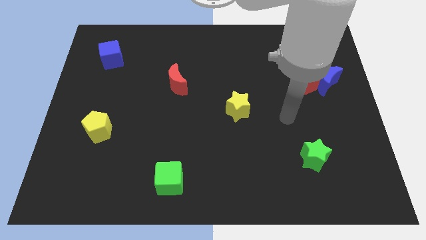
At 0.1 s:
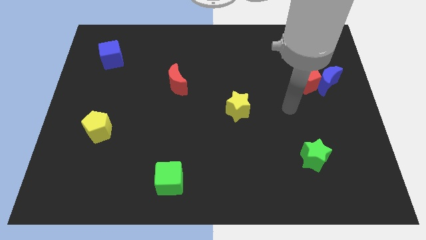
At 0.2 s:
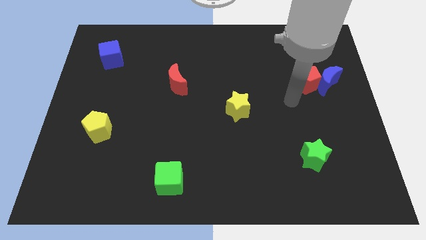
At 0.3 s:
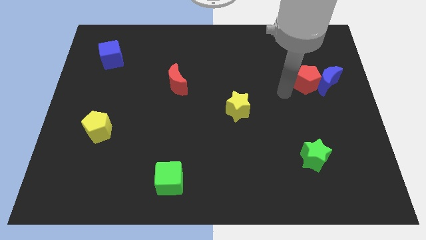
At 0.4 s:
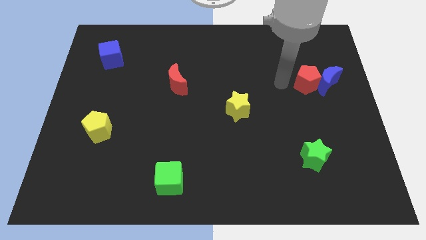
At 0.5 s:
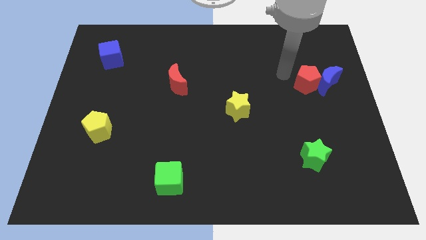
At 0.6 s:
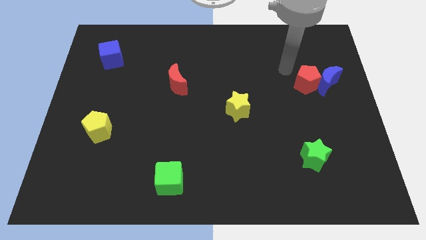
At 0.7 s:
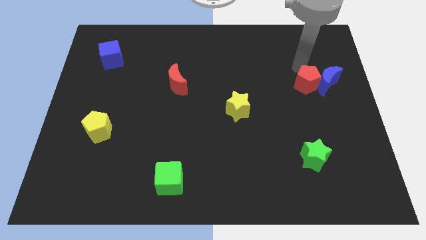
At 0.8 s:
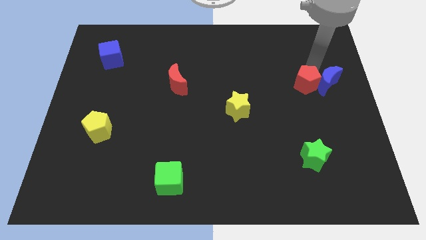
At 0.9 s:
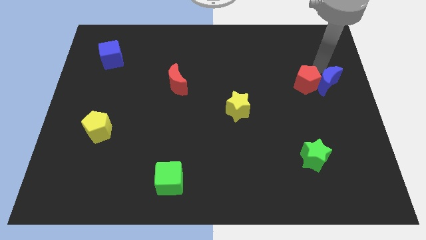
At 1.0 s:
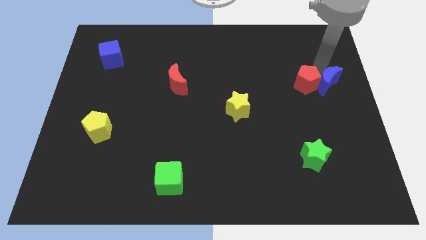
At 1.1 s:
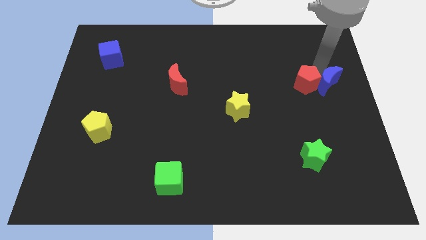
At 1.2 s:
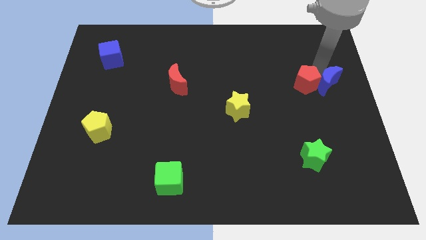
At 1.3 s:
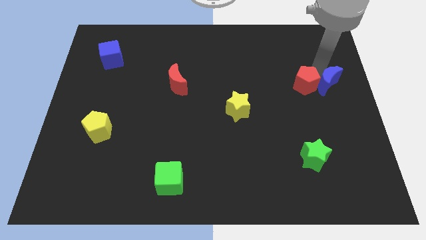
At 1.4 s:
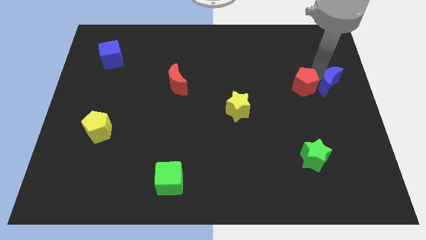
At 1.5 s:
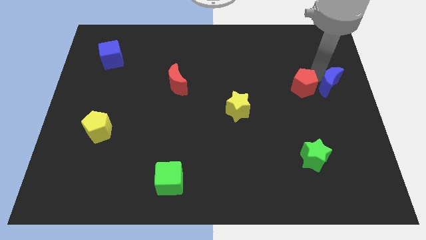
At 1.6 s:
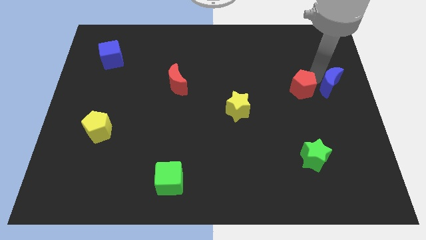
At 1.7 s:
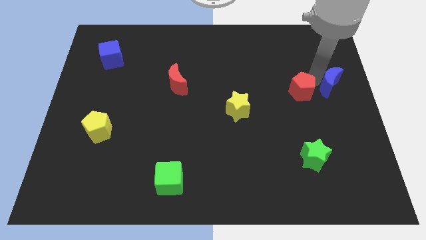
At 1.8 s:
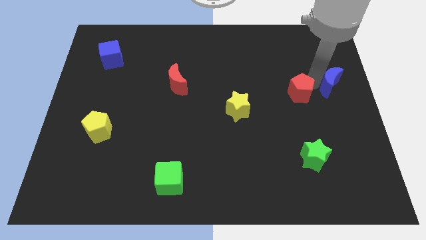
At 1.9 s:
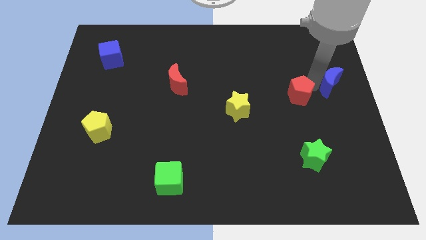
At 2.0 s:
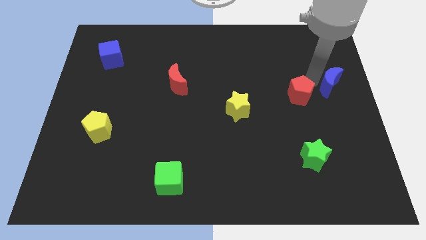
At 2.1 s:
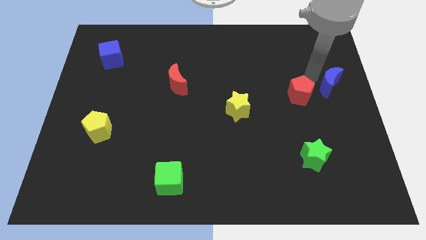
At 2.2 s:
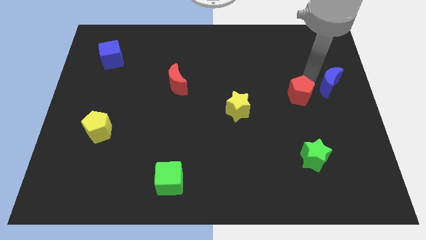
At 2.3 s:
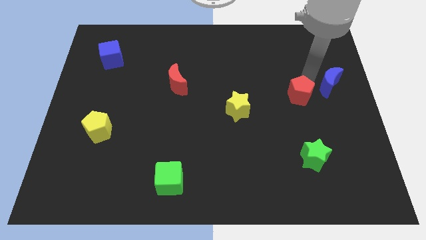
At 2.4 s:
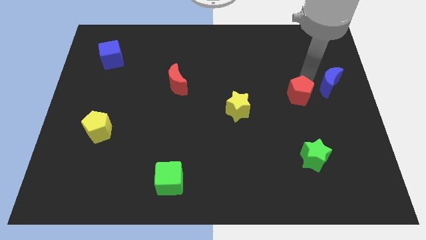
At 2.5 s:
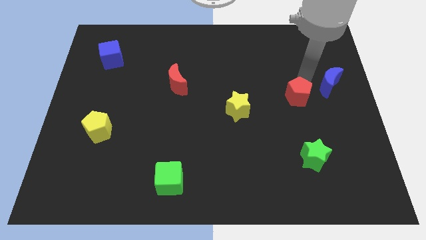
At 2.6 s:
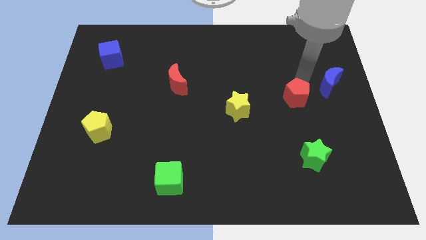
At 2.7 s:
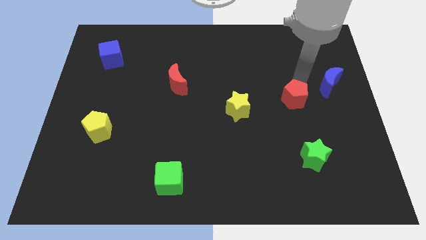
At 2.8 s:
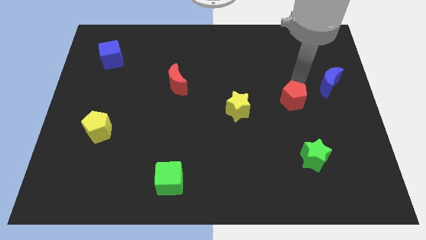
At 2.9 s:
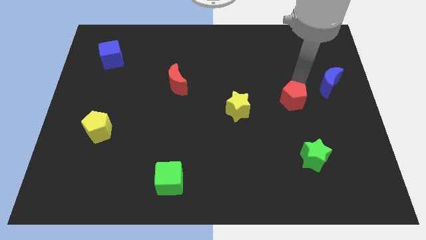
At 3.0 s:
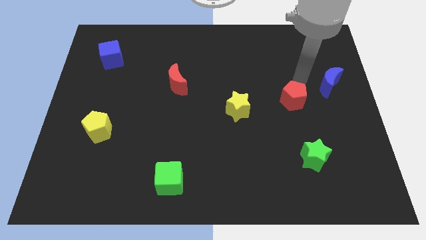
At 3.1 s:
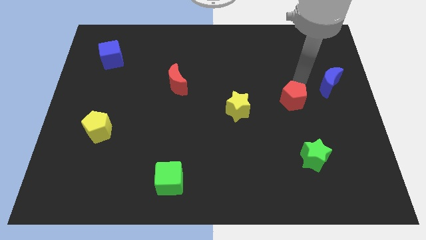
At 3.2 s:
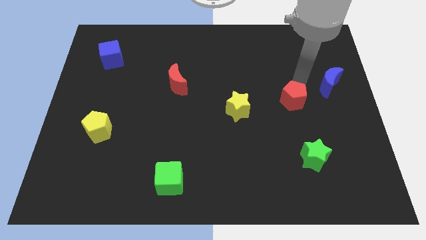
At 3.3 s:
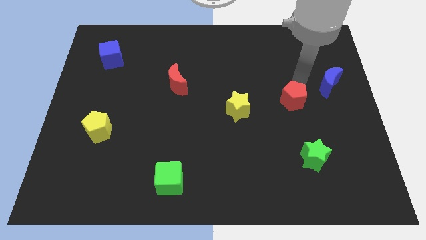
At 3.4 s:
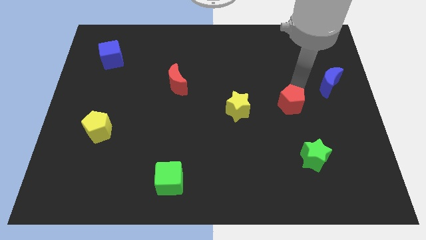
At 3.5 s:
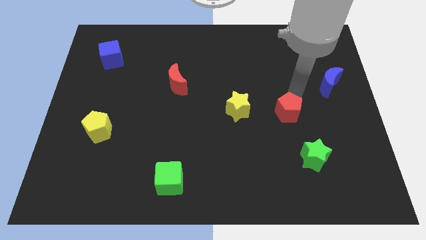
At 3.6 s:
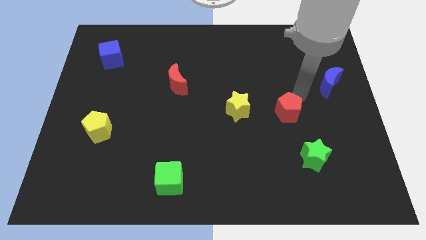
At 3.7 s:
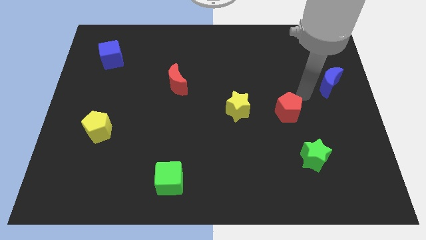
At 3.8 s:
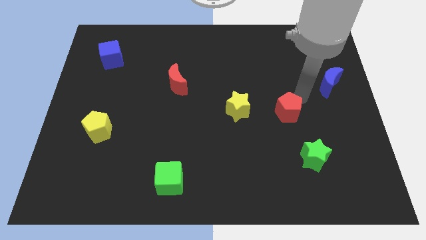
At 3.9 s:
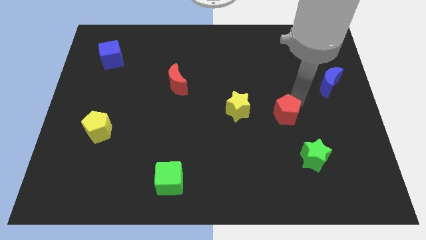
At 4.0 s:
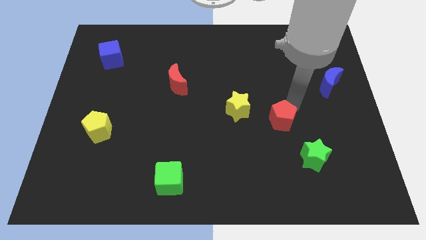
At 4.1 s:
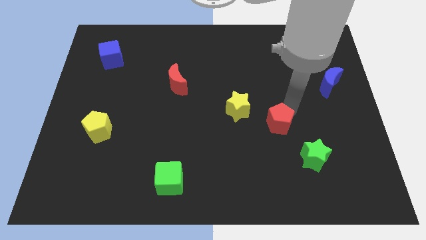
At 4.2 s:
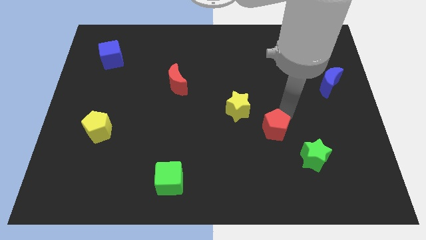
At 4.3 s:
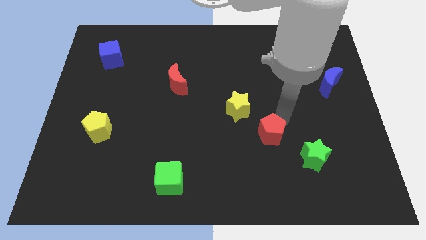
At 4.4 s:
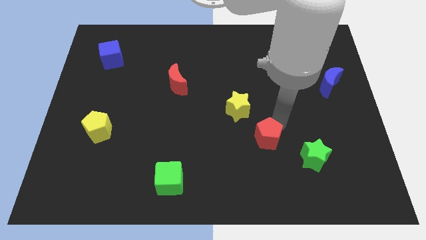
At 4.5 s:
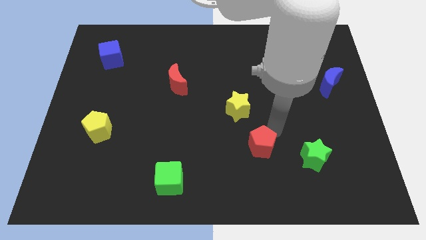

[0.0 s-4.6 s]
move the red pentagon diagonally downwards and left

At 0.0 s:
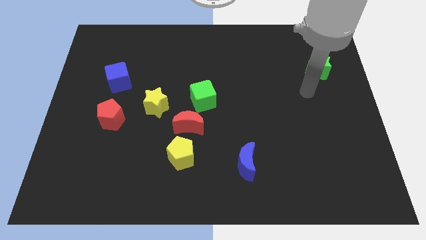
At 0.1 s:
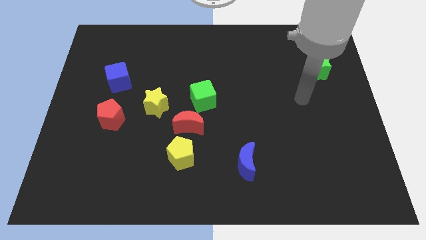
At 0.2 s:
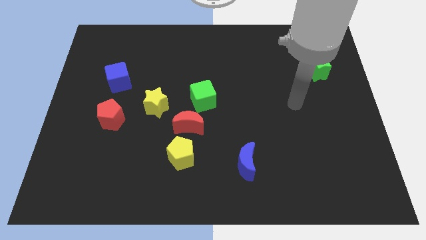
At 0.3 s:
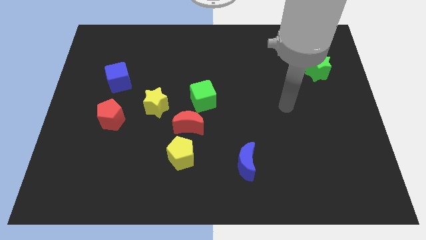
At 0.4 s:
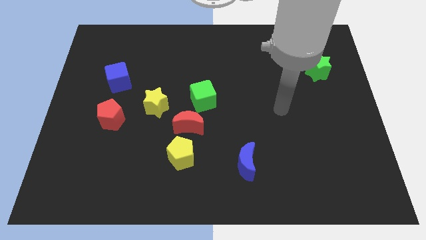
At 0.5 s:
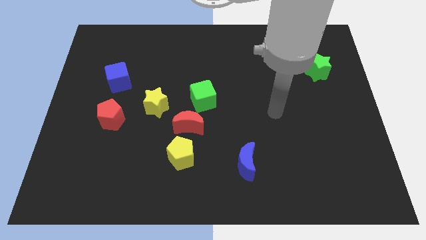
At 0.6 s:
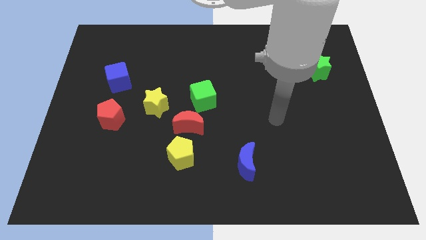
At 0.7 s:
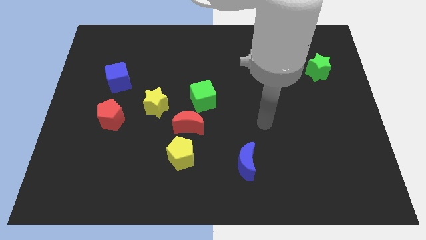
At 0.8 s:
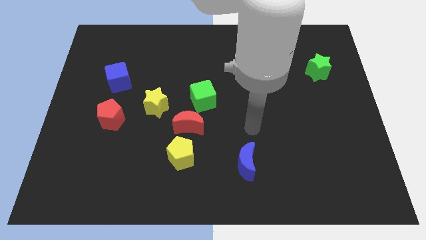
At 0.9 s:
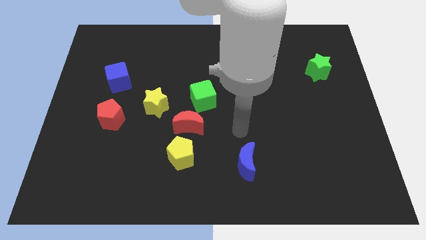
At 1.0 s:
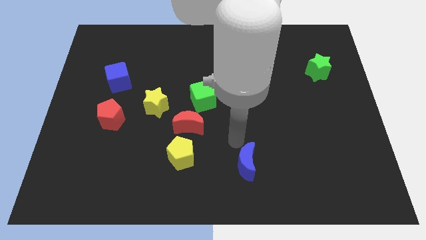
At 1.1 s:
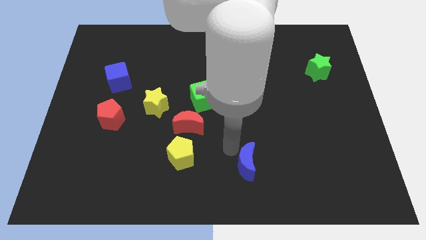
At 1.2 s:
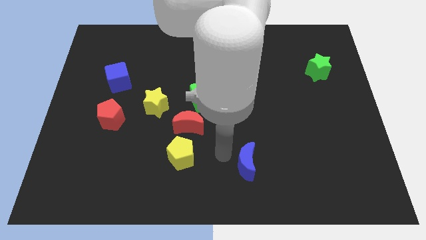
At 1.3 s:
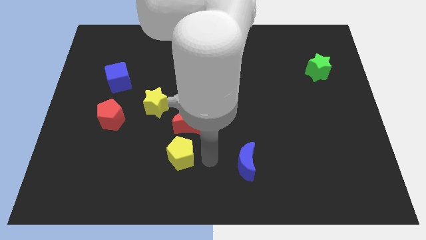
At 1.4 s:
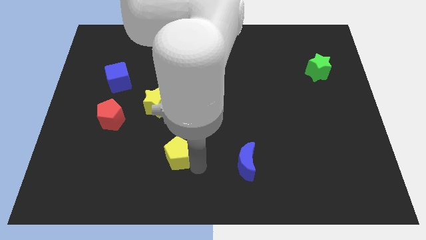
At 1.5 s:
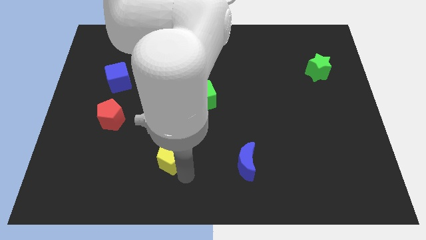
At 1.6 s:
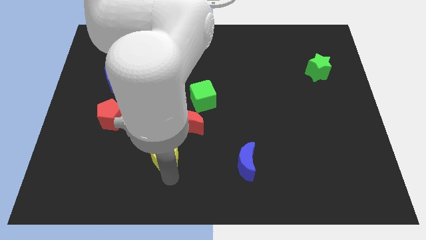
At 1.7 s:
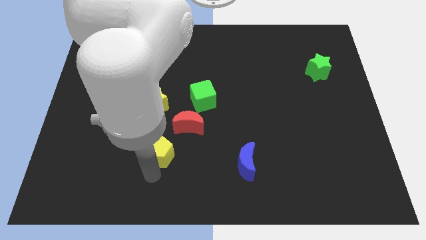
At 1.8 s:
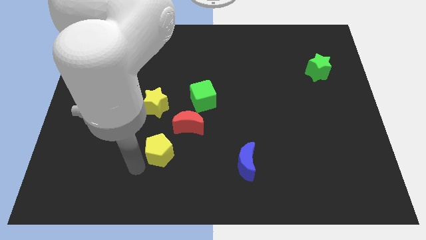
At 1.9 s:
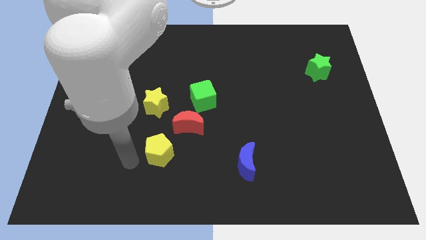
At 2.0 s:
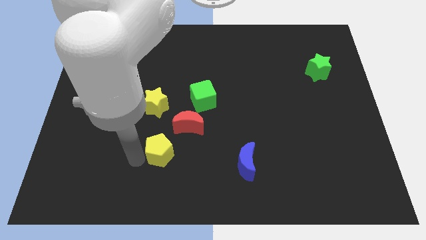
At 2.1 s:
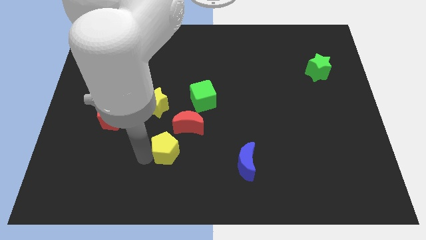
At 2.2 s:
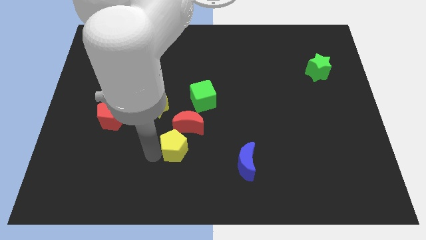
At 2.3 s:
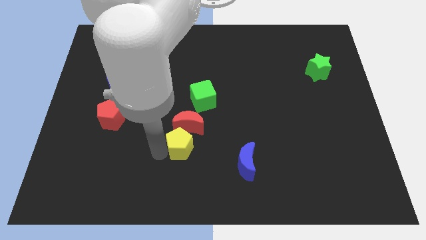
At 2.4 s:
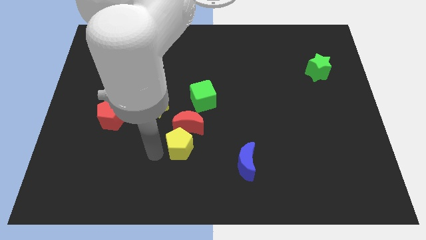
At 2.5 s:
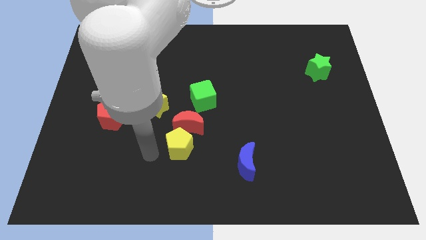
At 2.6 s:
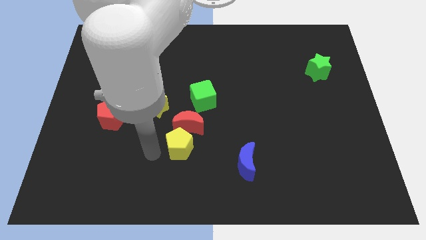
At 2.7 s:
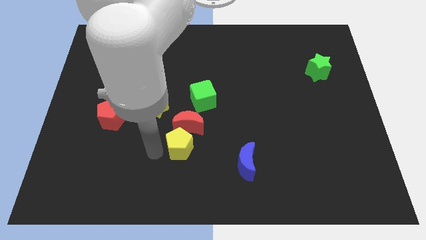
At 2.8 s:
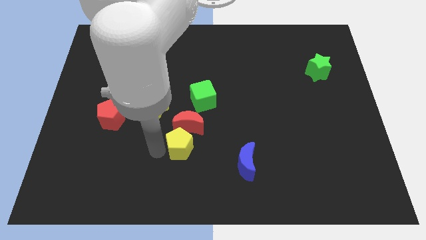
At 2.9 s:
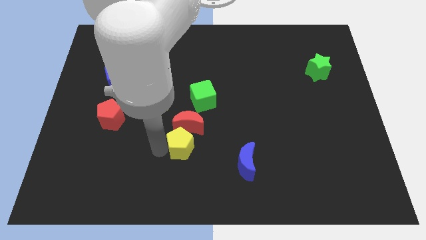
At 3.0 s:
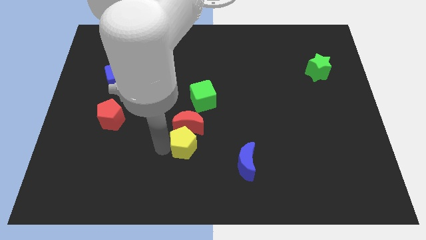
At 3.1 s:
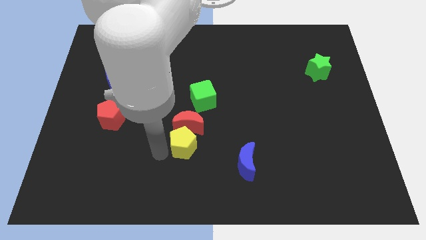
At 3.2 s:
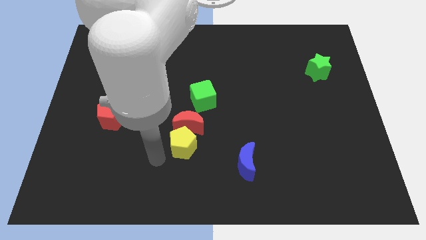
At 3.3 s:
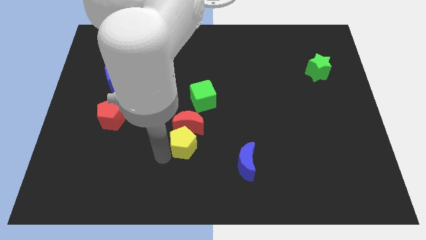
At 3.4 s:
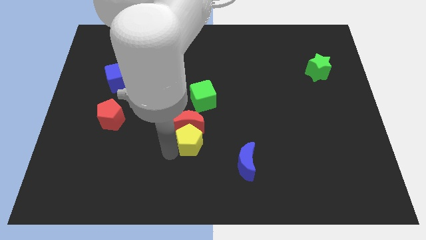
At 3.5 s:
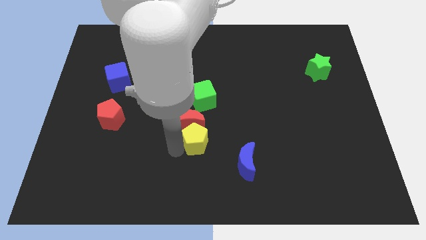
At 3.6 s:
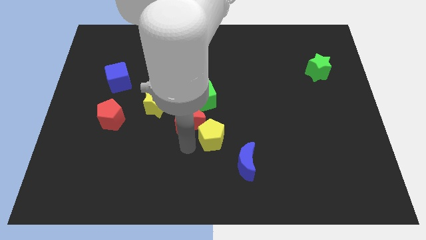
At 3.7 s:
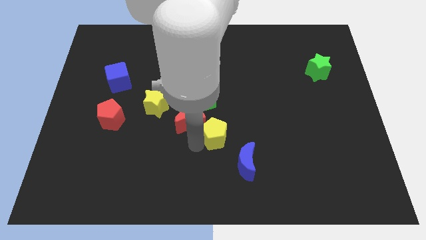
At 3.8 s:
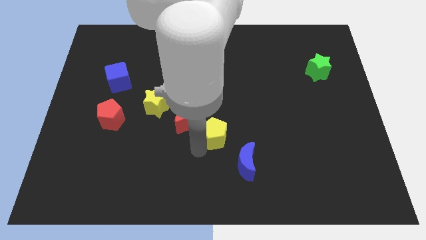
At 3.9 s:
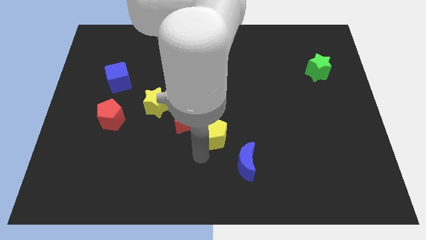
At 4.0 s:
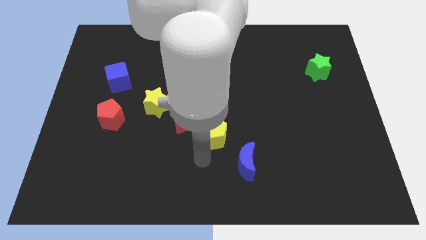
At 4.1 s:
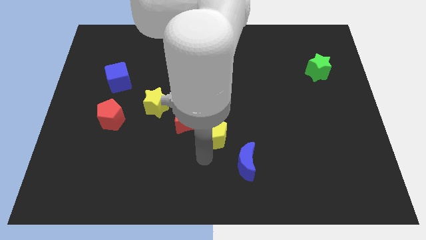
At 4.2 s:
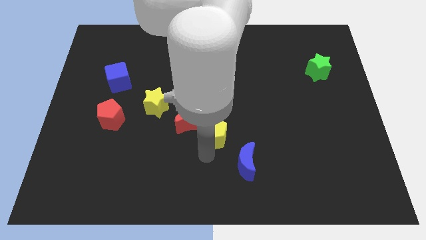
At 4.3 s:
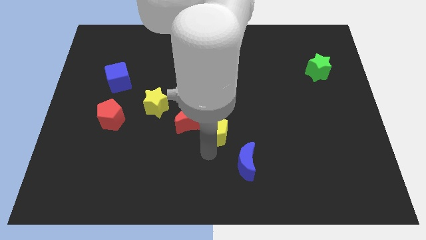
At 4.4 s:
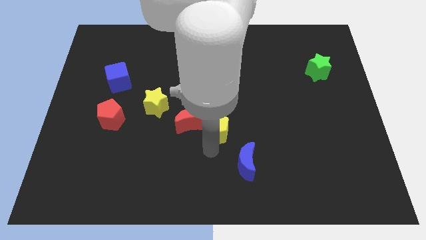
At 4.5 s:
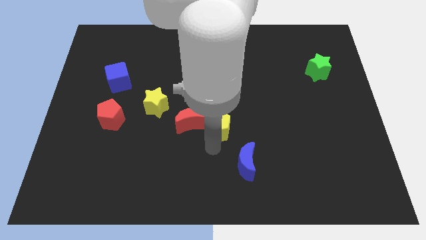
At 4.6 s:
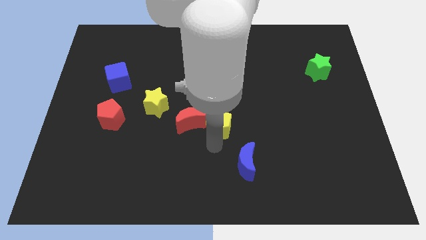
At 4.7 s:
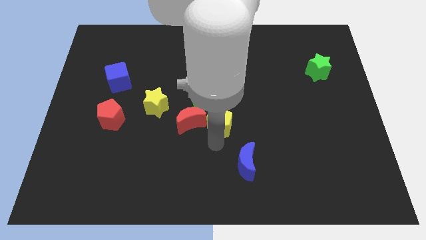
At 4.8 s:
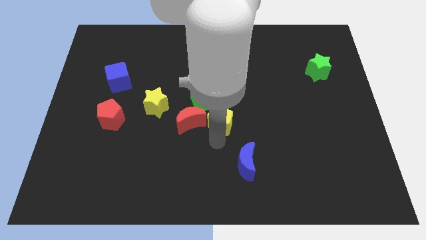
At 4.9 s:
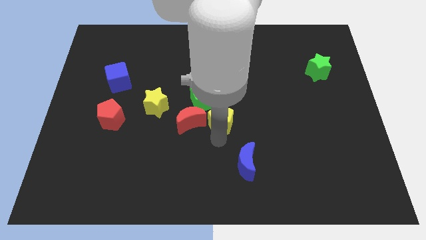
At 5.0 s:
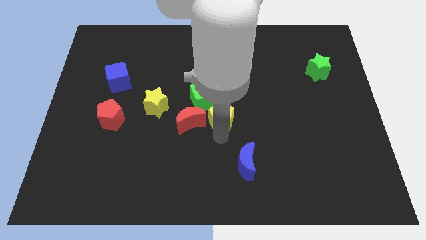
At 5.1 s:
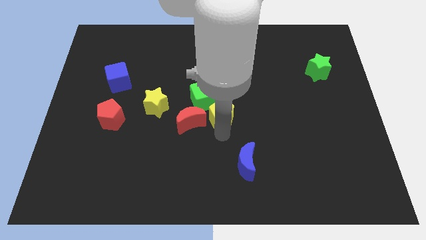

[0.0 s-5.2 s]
push the yellow pentagon up a little
